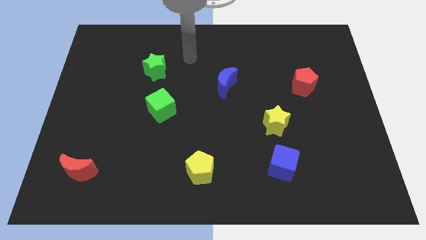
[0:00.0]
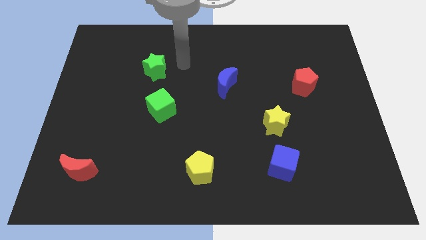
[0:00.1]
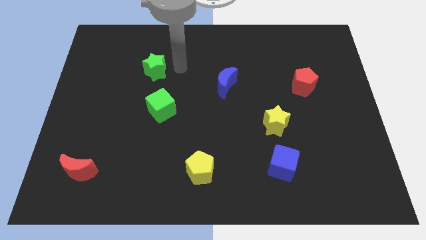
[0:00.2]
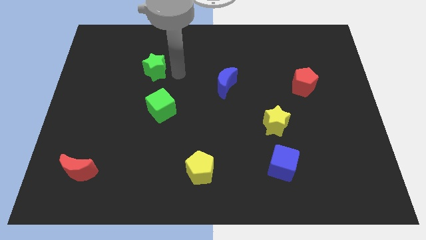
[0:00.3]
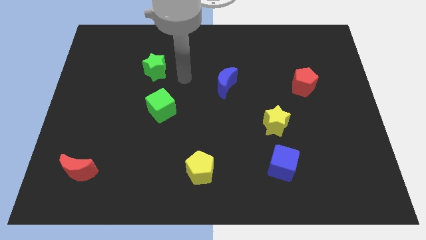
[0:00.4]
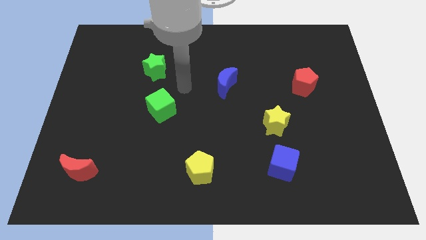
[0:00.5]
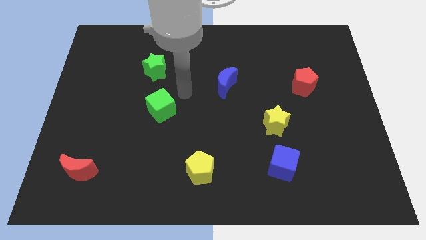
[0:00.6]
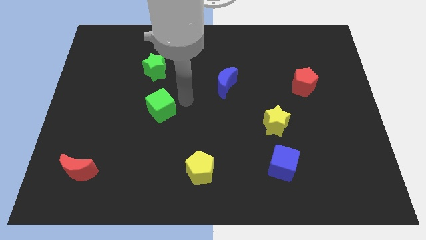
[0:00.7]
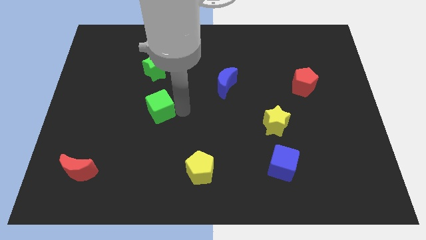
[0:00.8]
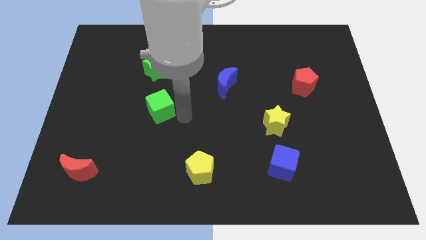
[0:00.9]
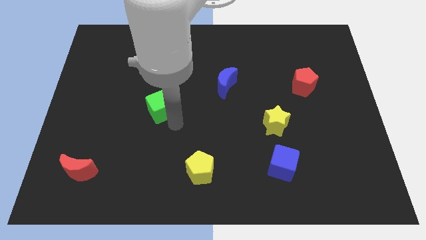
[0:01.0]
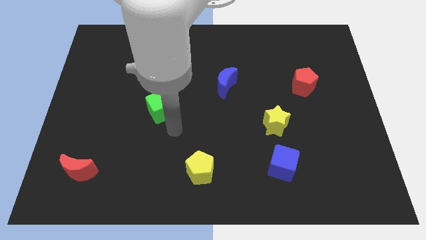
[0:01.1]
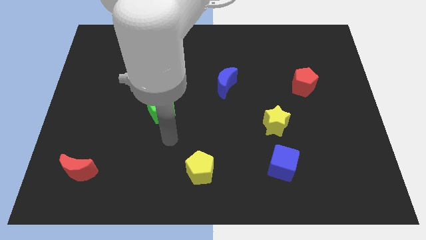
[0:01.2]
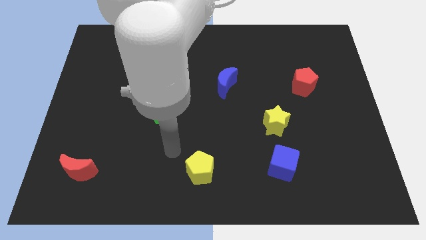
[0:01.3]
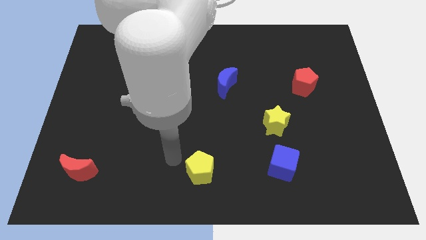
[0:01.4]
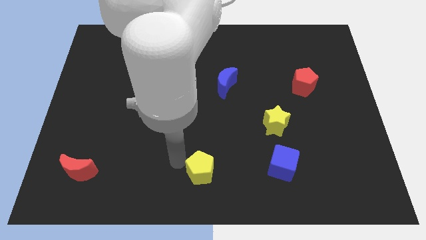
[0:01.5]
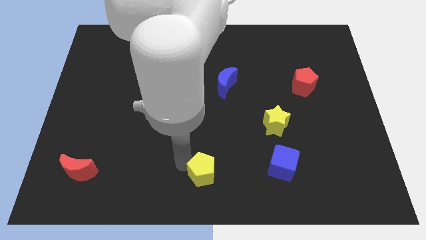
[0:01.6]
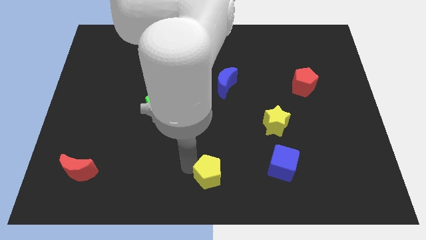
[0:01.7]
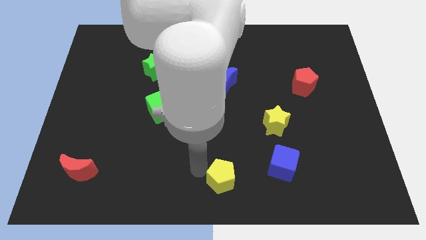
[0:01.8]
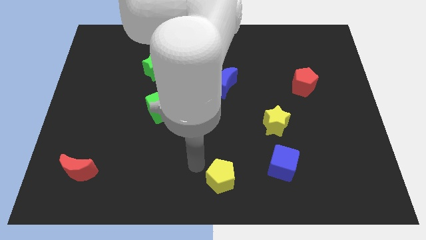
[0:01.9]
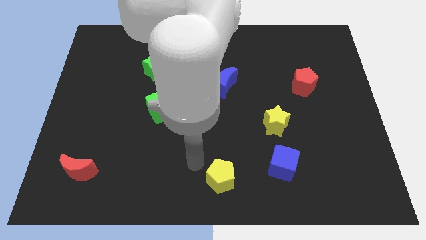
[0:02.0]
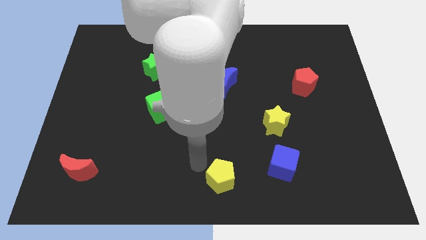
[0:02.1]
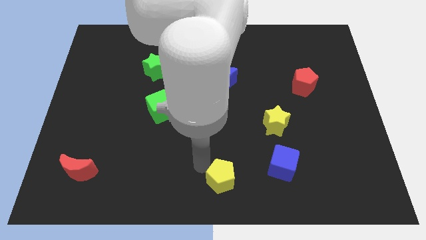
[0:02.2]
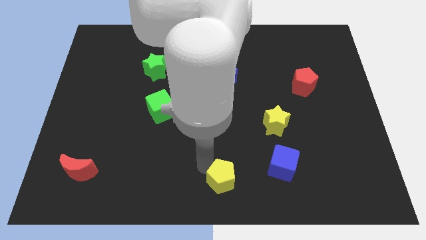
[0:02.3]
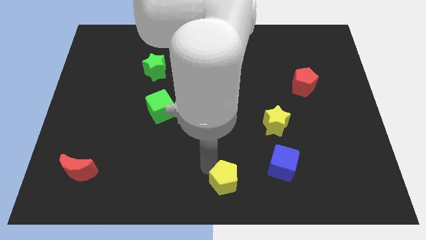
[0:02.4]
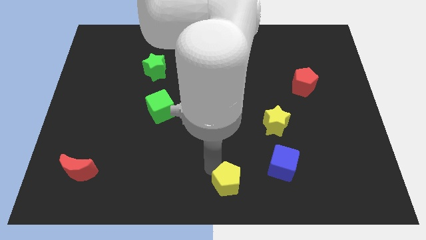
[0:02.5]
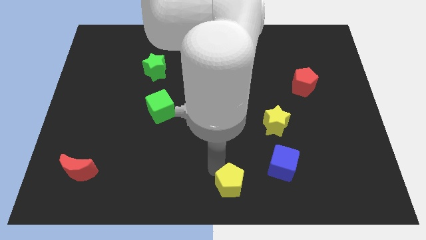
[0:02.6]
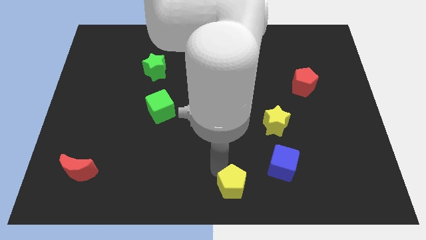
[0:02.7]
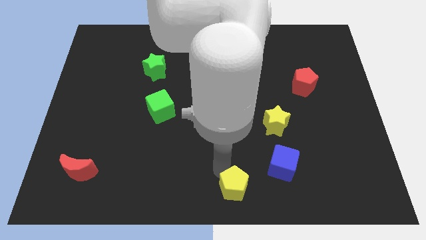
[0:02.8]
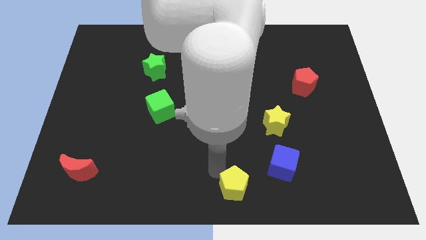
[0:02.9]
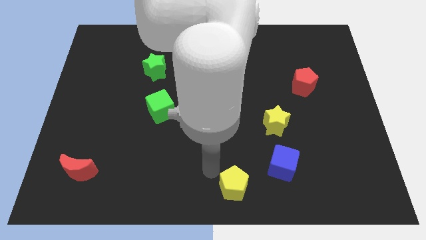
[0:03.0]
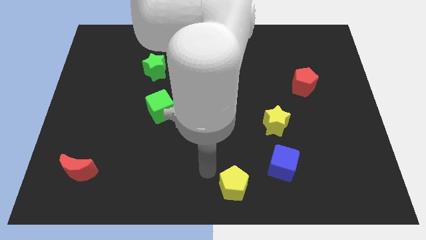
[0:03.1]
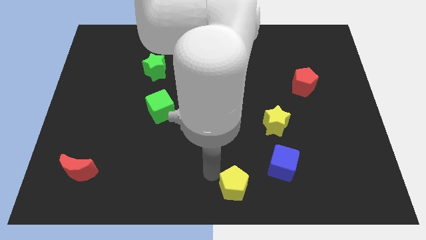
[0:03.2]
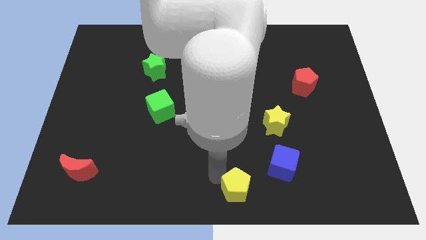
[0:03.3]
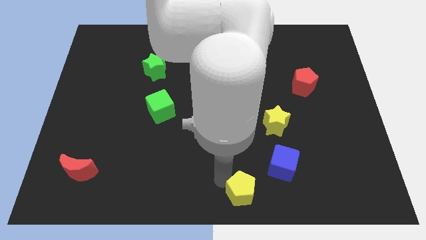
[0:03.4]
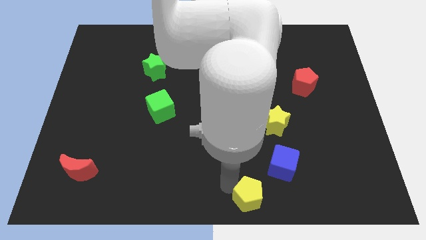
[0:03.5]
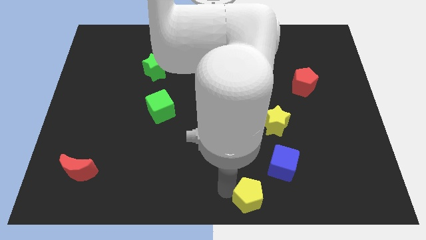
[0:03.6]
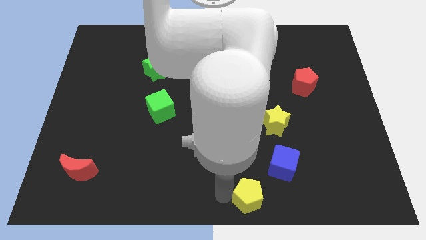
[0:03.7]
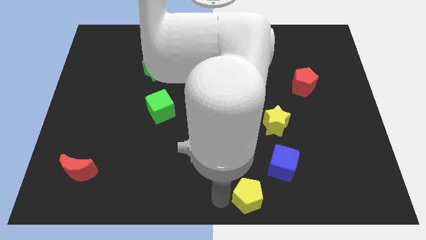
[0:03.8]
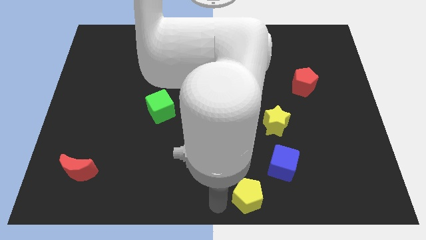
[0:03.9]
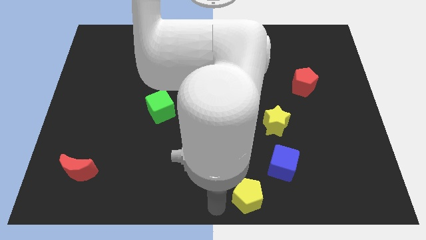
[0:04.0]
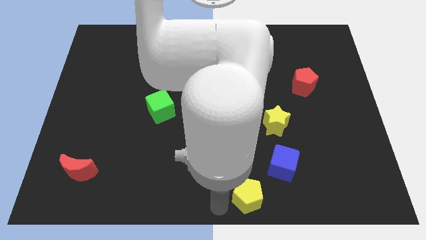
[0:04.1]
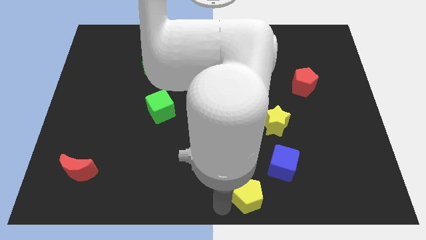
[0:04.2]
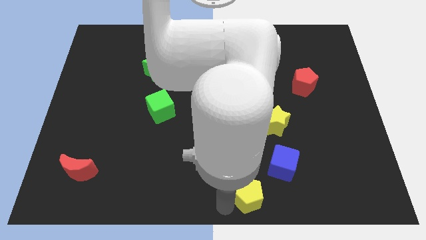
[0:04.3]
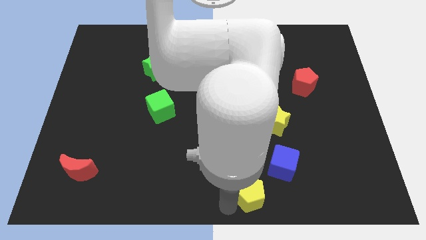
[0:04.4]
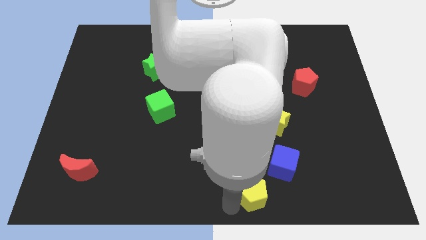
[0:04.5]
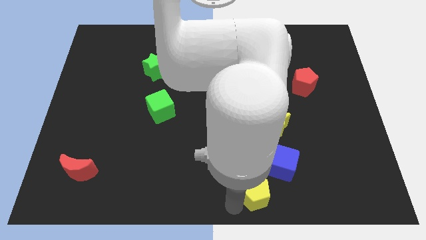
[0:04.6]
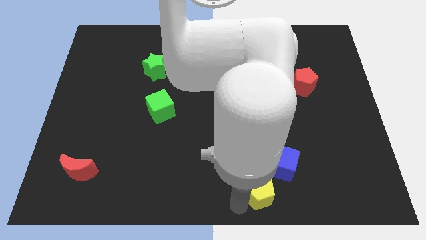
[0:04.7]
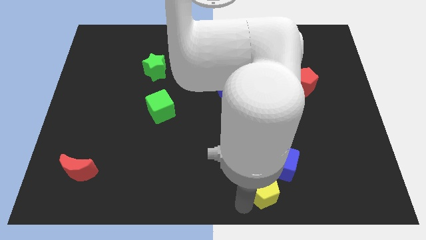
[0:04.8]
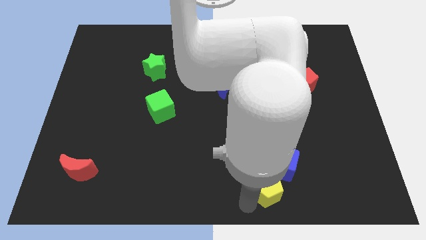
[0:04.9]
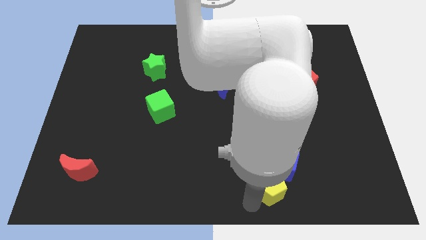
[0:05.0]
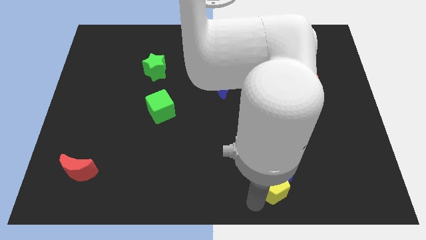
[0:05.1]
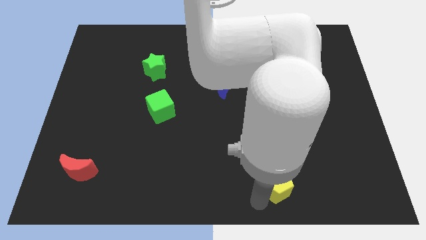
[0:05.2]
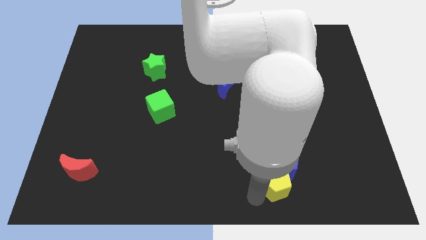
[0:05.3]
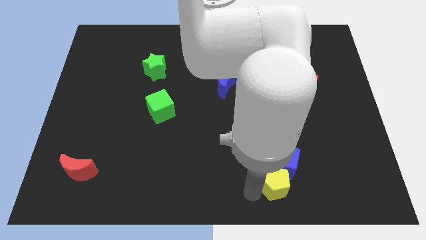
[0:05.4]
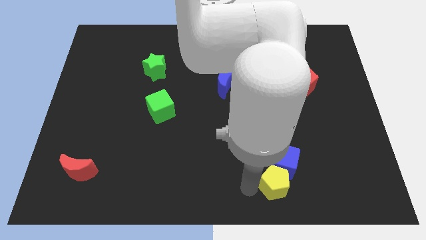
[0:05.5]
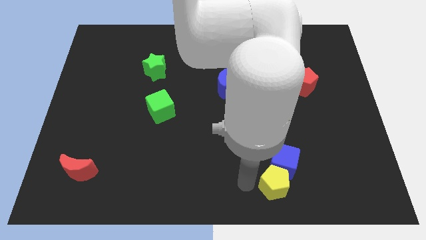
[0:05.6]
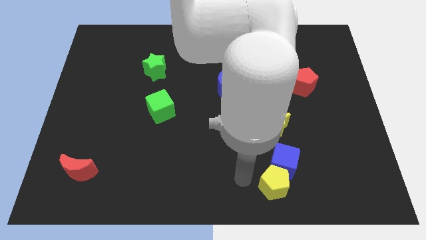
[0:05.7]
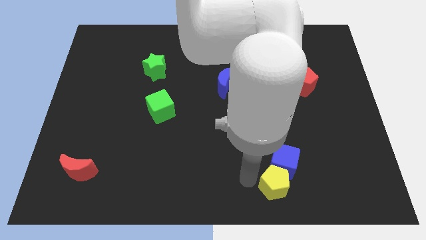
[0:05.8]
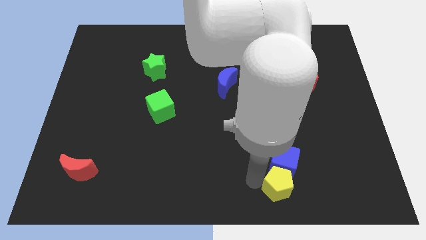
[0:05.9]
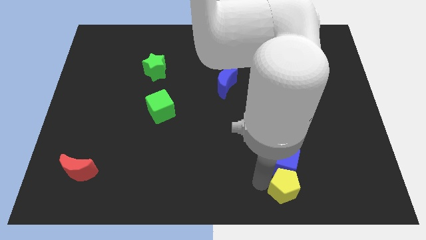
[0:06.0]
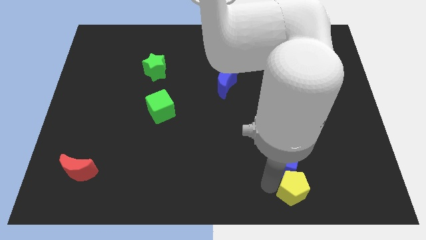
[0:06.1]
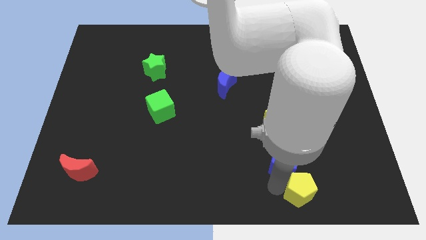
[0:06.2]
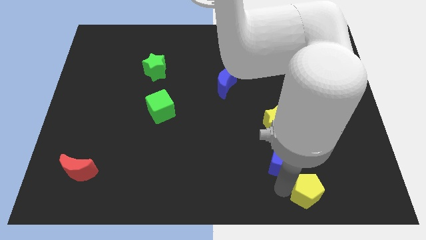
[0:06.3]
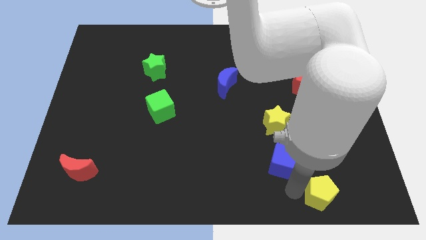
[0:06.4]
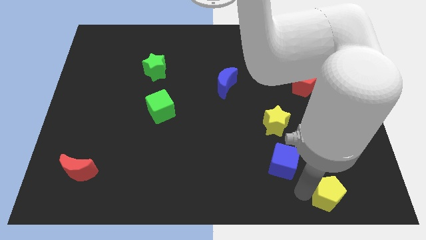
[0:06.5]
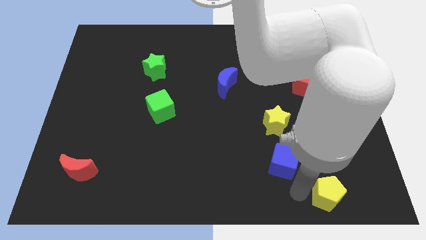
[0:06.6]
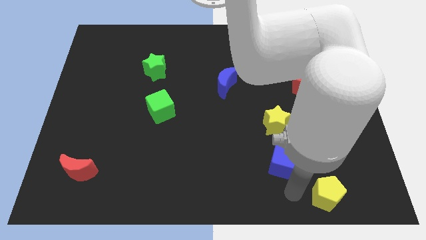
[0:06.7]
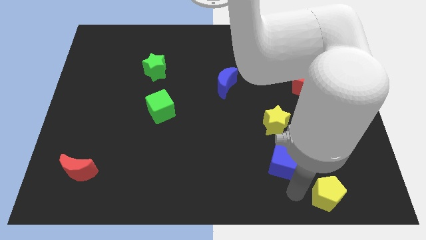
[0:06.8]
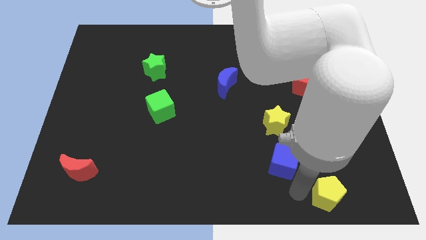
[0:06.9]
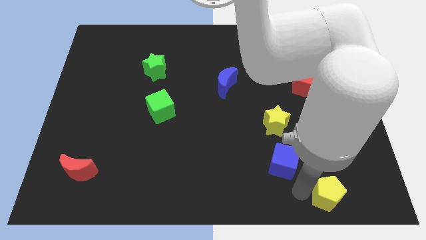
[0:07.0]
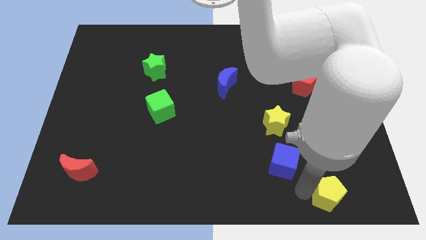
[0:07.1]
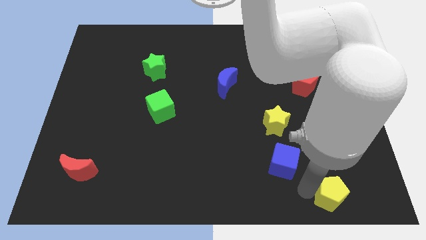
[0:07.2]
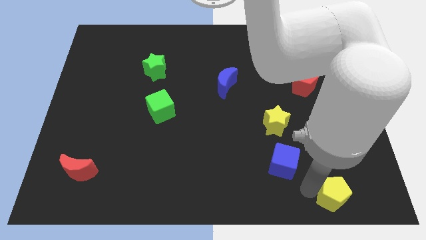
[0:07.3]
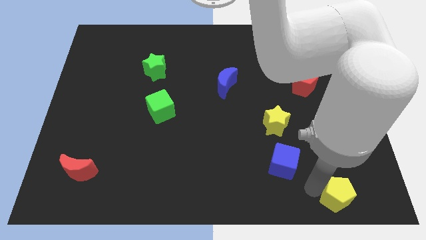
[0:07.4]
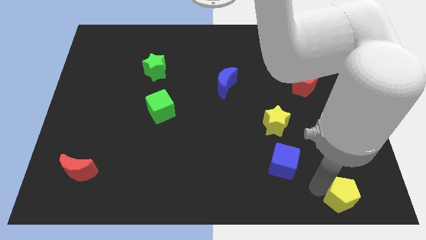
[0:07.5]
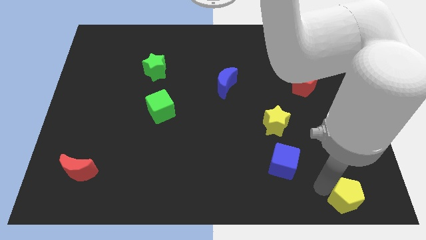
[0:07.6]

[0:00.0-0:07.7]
slide the yellow pentagon to the lower right corner

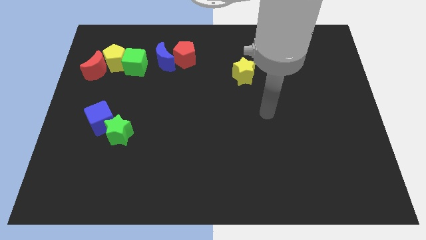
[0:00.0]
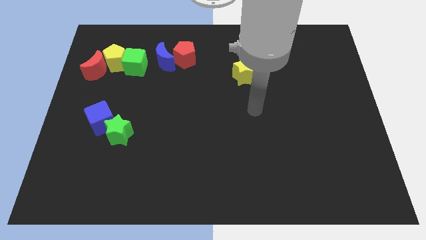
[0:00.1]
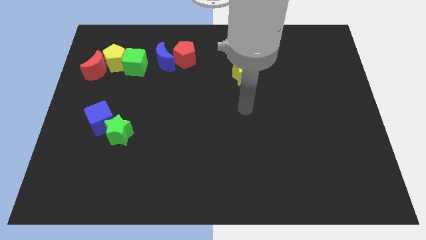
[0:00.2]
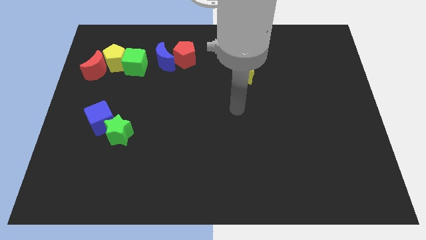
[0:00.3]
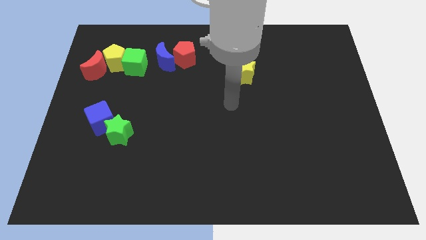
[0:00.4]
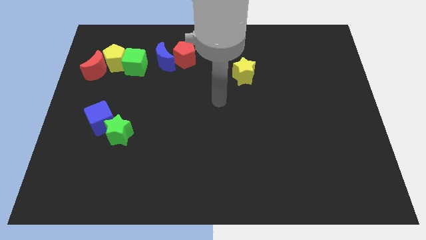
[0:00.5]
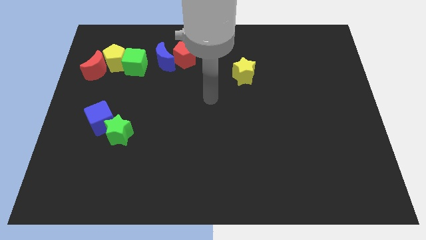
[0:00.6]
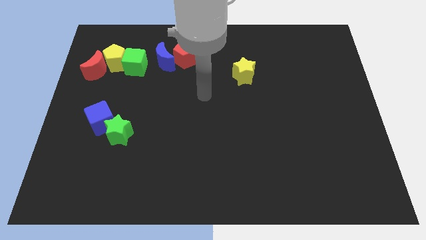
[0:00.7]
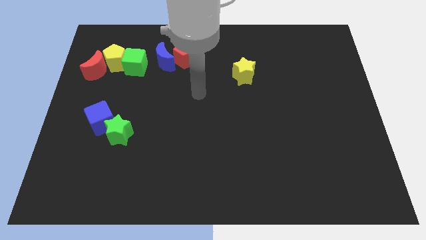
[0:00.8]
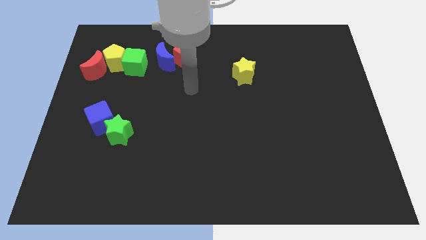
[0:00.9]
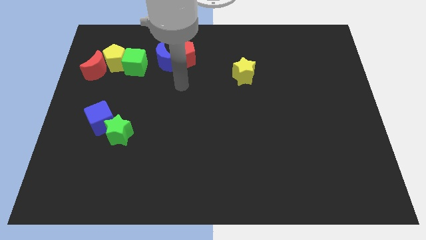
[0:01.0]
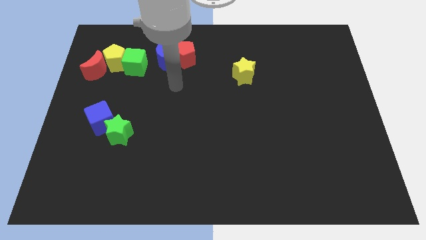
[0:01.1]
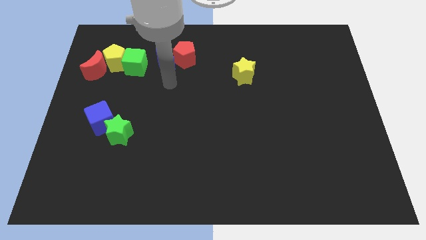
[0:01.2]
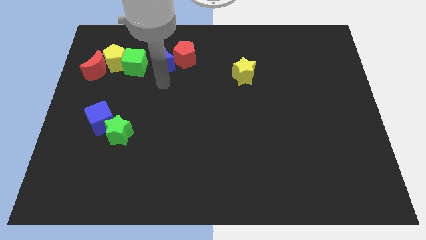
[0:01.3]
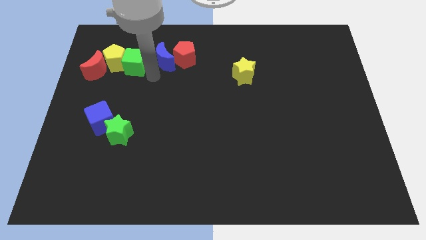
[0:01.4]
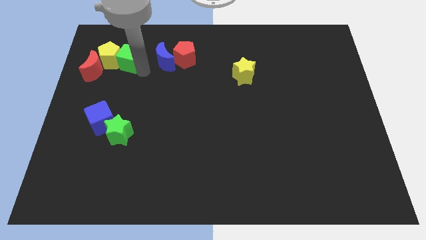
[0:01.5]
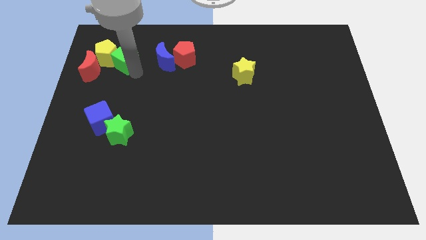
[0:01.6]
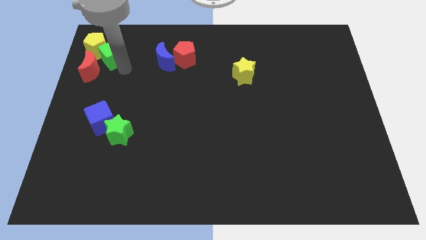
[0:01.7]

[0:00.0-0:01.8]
put the yellow pentagon to the top left of the board
